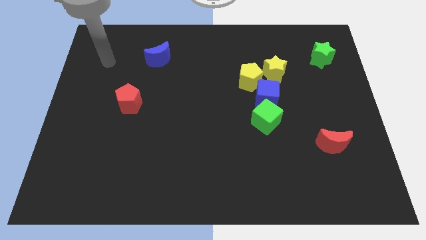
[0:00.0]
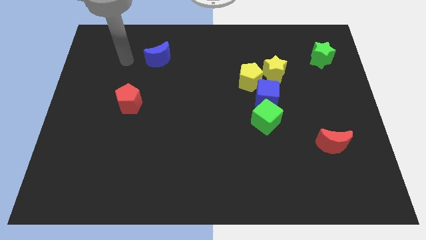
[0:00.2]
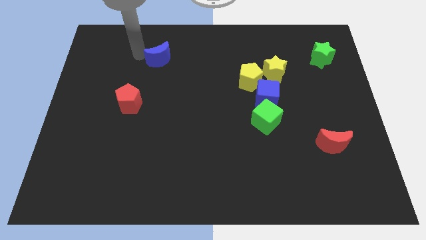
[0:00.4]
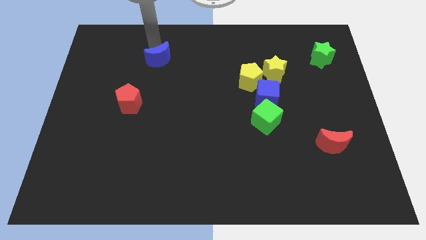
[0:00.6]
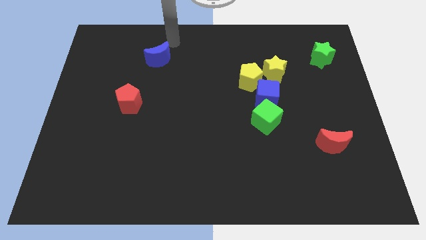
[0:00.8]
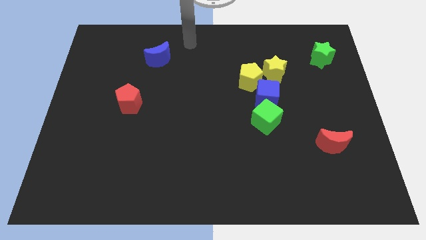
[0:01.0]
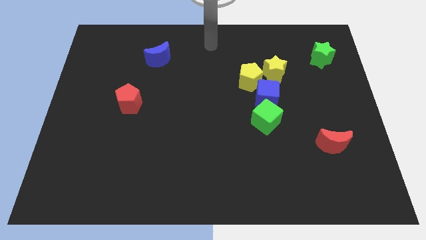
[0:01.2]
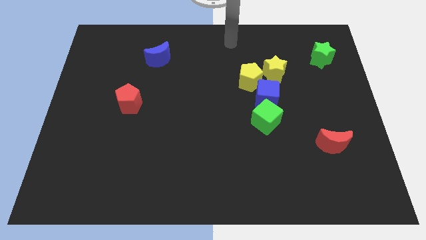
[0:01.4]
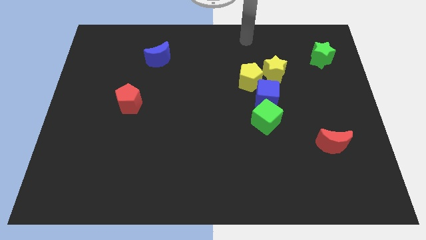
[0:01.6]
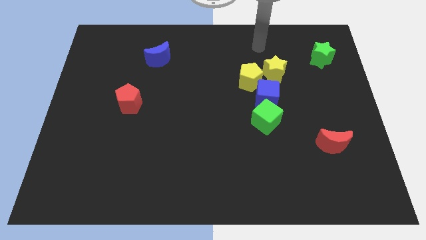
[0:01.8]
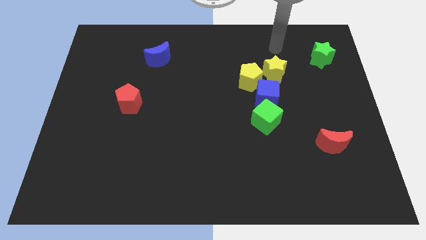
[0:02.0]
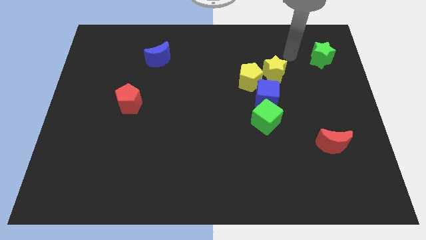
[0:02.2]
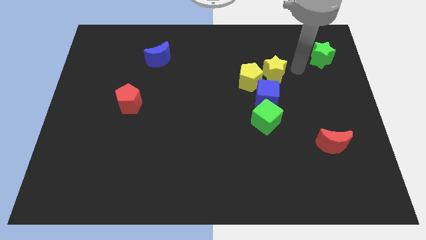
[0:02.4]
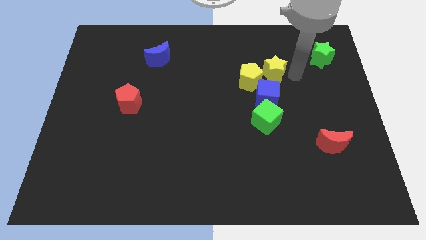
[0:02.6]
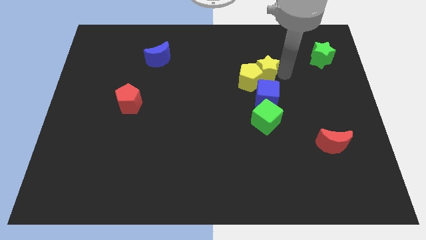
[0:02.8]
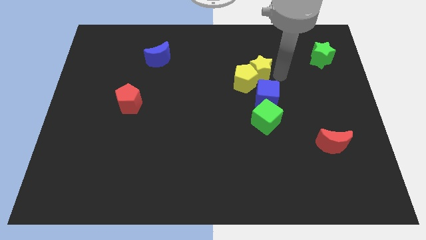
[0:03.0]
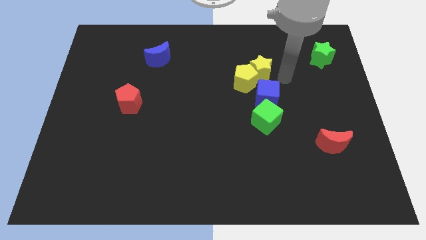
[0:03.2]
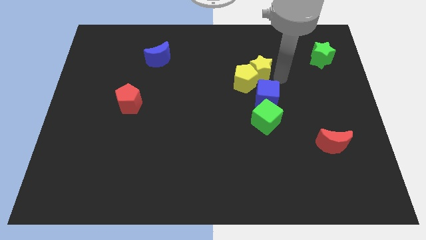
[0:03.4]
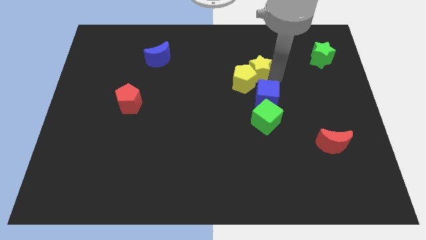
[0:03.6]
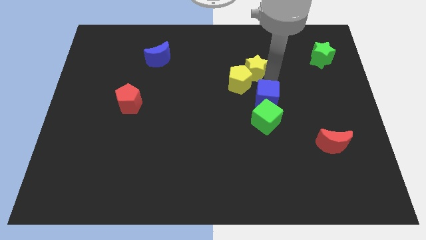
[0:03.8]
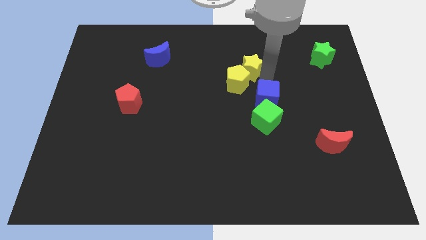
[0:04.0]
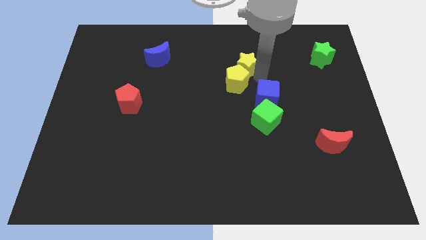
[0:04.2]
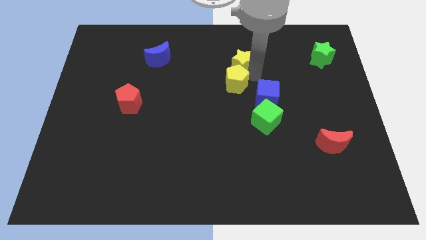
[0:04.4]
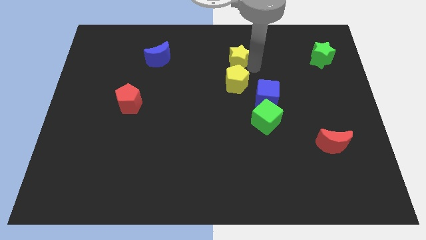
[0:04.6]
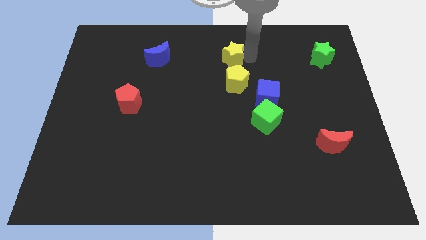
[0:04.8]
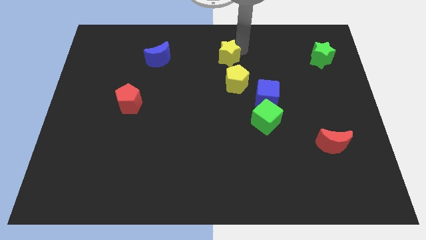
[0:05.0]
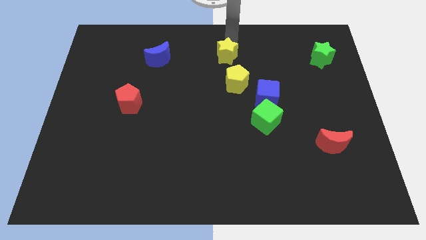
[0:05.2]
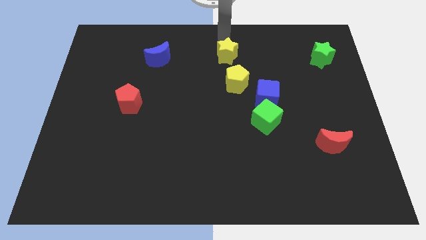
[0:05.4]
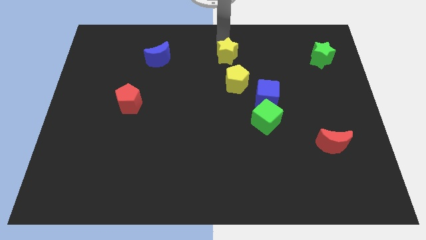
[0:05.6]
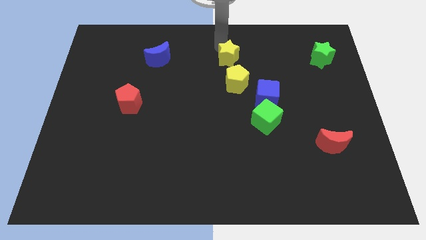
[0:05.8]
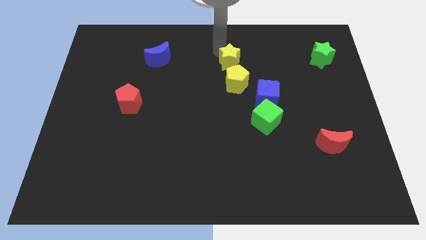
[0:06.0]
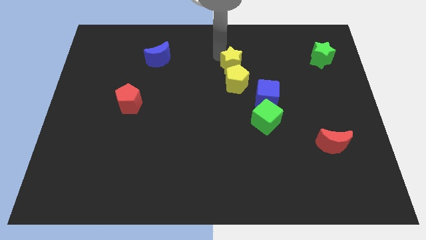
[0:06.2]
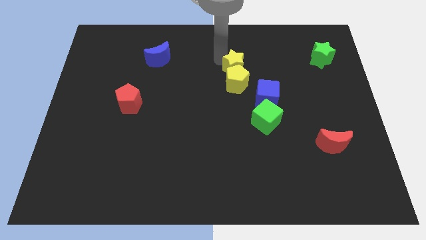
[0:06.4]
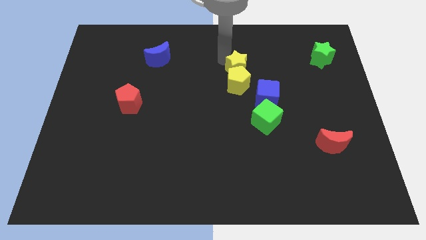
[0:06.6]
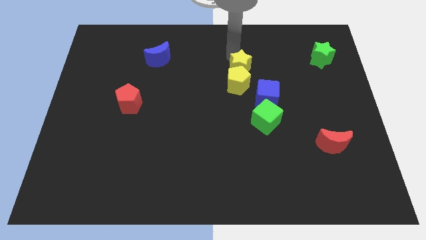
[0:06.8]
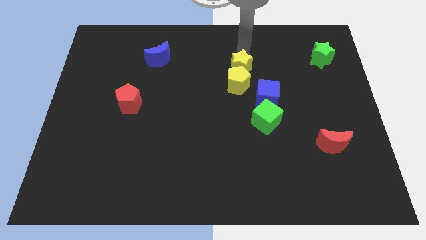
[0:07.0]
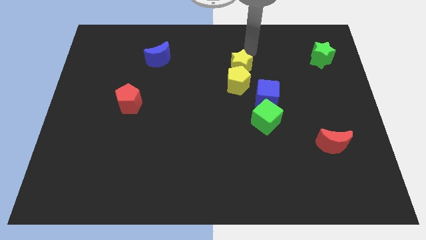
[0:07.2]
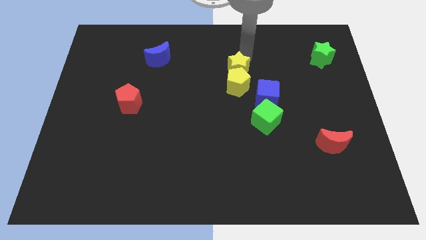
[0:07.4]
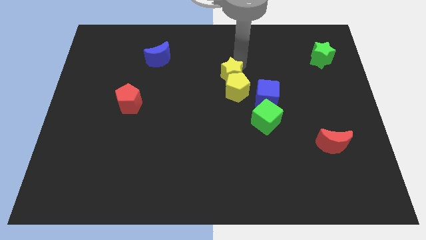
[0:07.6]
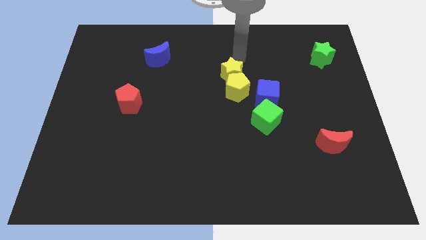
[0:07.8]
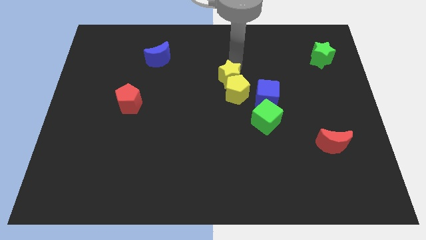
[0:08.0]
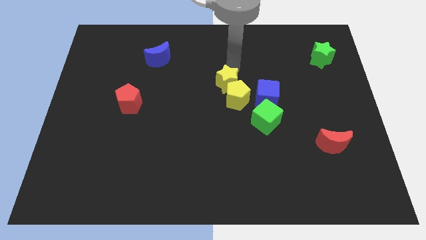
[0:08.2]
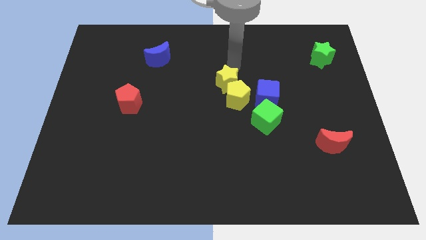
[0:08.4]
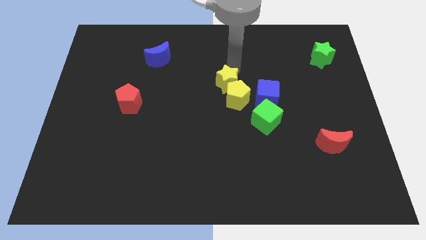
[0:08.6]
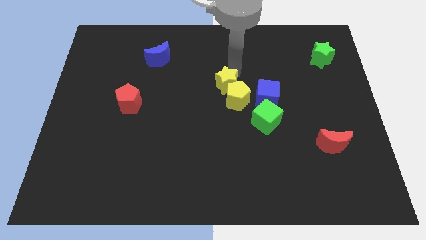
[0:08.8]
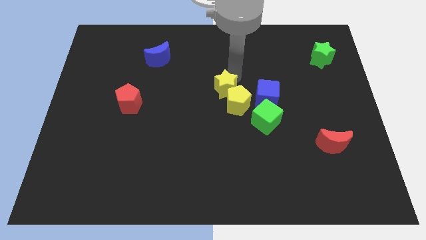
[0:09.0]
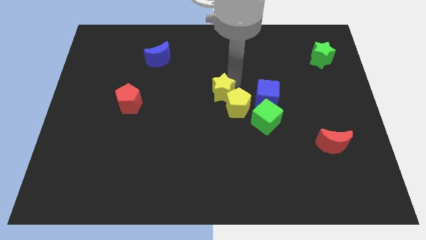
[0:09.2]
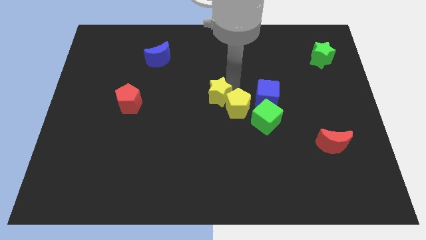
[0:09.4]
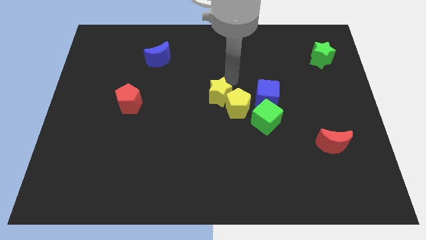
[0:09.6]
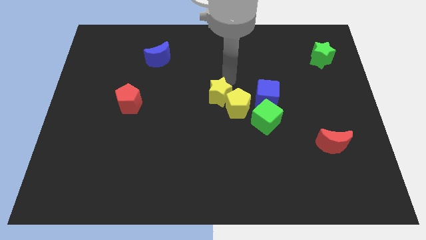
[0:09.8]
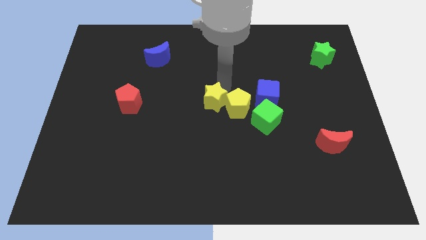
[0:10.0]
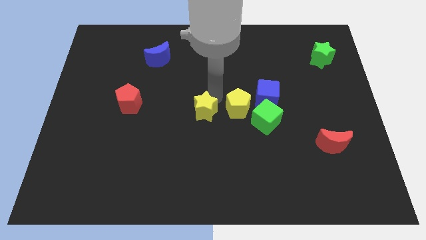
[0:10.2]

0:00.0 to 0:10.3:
move the yellow star down and to the left diagonally

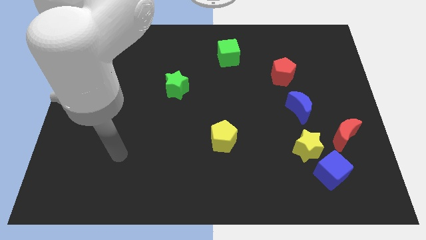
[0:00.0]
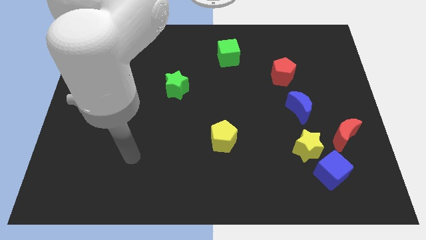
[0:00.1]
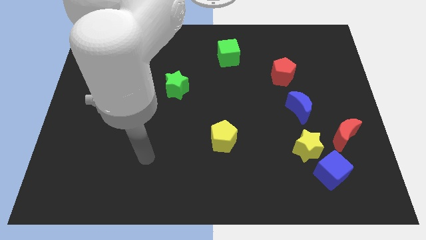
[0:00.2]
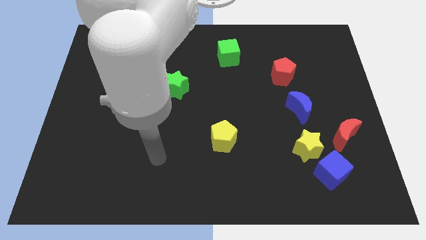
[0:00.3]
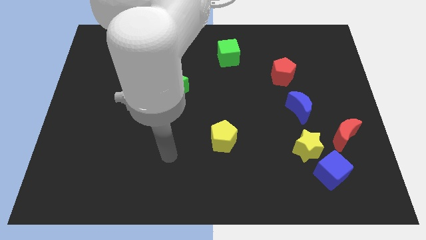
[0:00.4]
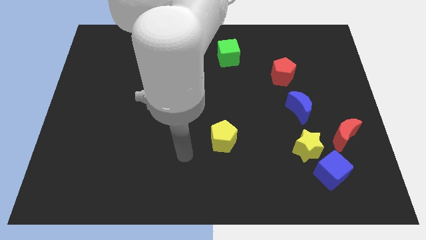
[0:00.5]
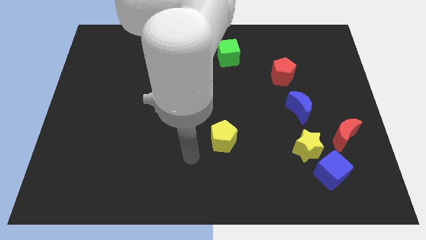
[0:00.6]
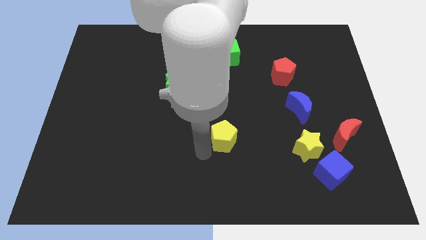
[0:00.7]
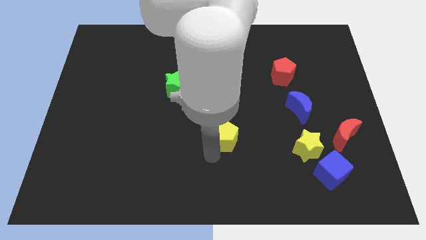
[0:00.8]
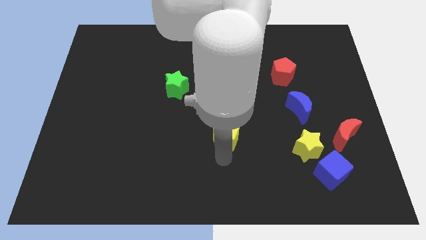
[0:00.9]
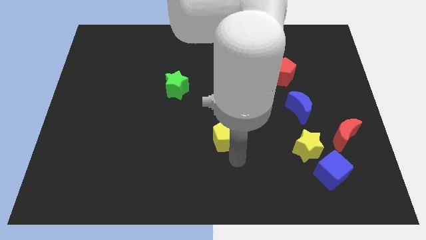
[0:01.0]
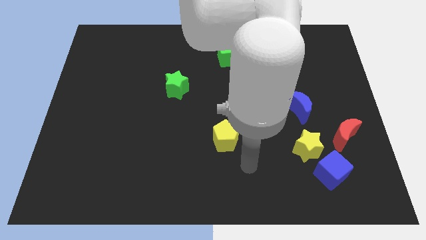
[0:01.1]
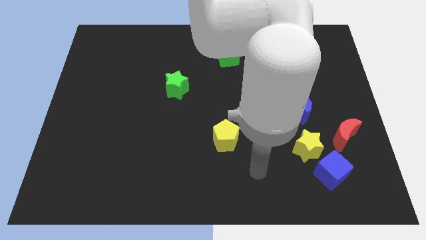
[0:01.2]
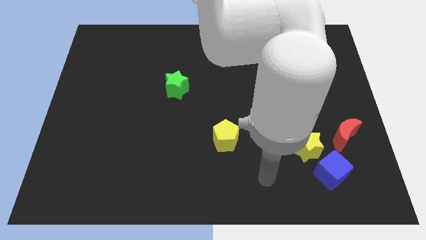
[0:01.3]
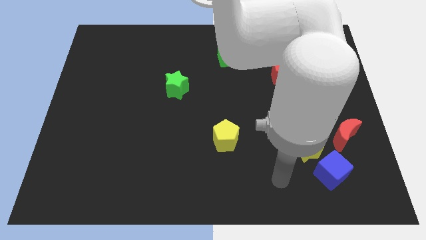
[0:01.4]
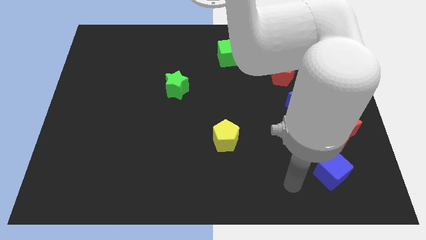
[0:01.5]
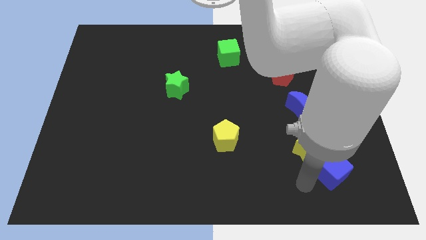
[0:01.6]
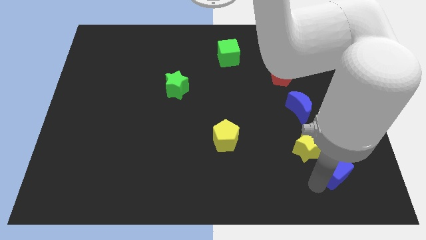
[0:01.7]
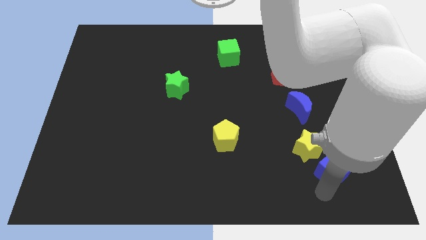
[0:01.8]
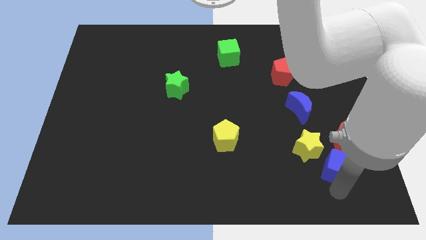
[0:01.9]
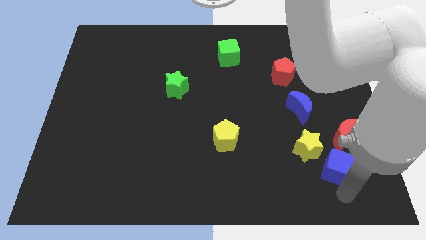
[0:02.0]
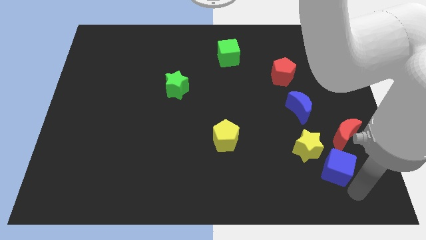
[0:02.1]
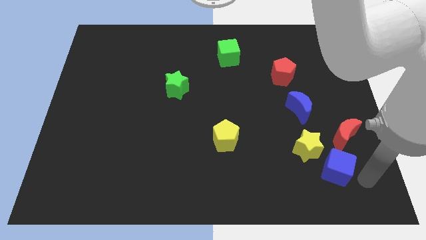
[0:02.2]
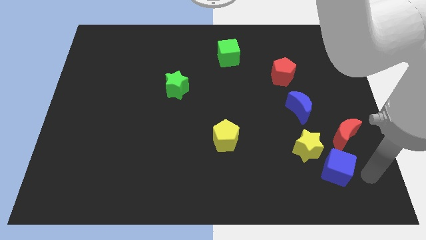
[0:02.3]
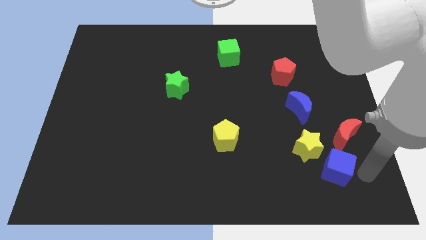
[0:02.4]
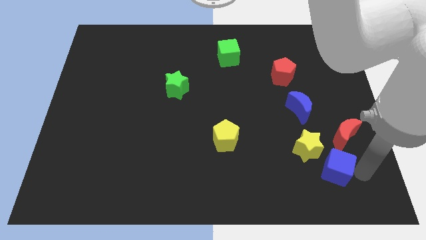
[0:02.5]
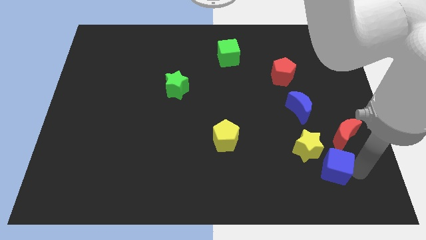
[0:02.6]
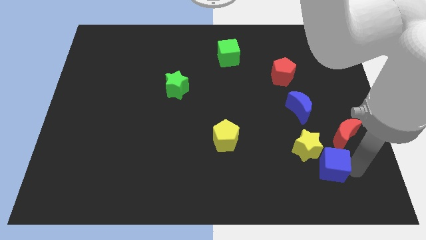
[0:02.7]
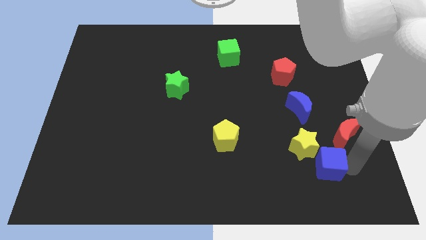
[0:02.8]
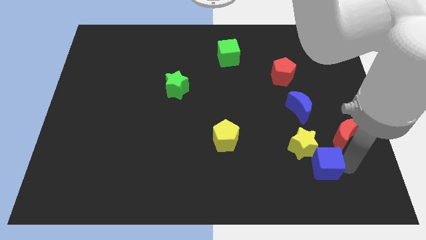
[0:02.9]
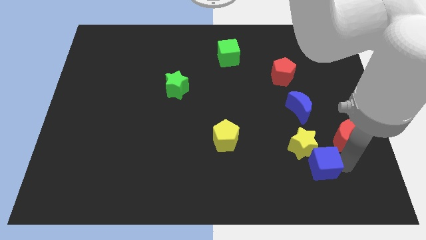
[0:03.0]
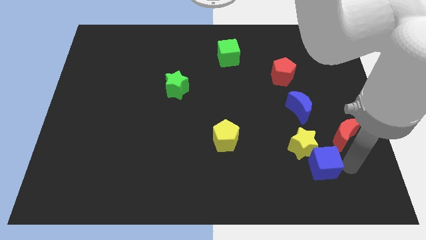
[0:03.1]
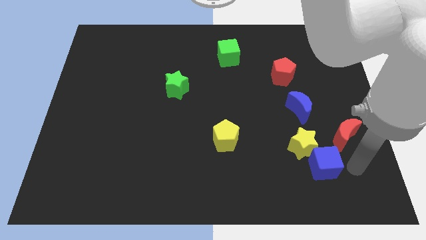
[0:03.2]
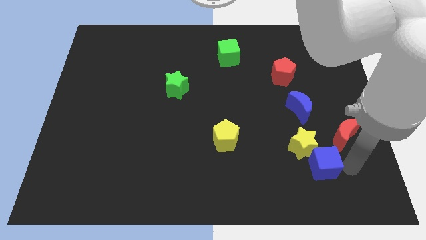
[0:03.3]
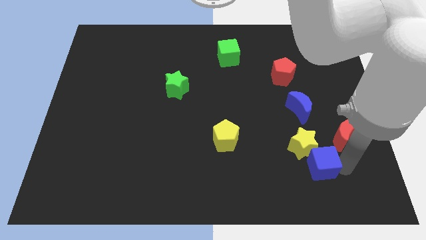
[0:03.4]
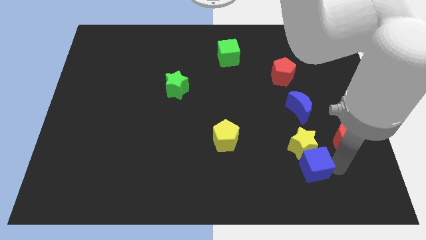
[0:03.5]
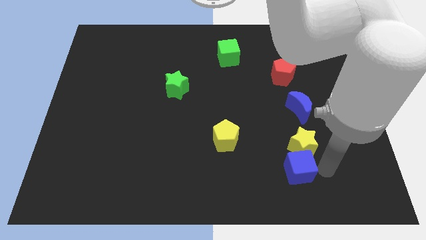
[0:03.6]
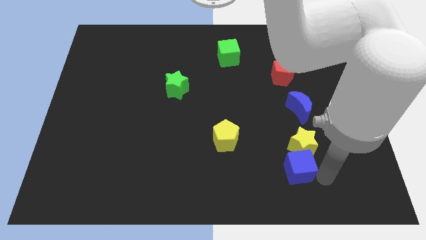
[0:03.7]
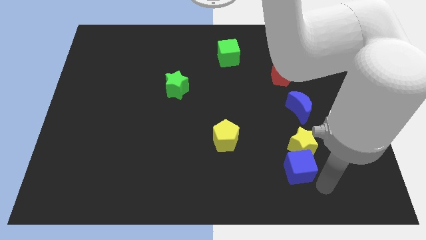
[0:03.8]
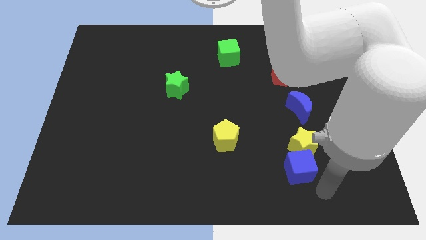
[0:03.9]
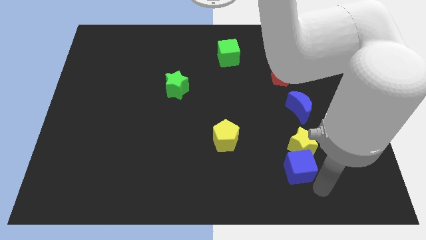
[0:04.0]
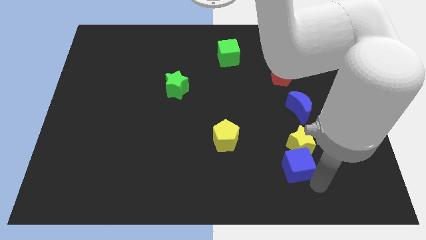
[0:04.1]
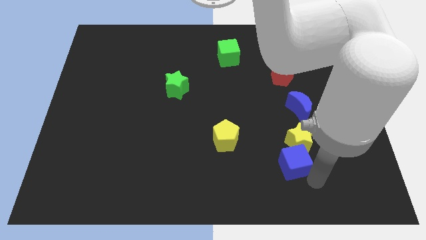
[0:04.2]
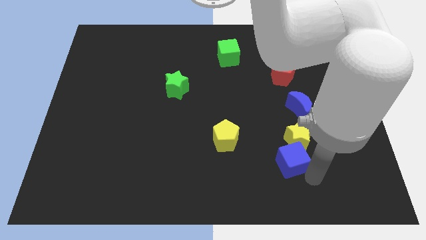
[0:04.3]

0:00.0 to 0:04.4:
slide the blue cube diagonally up and to the left a bit
